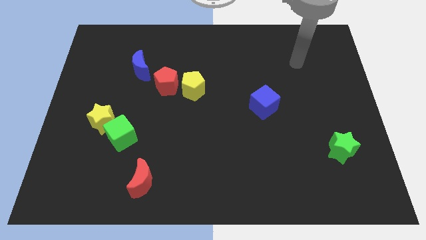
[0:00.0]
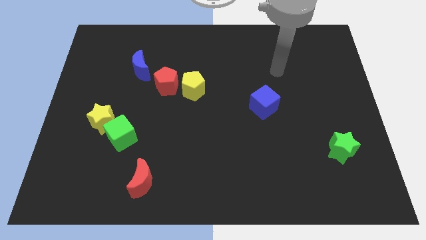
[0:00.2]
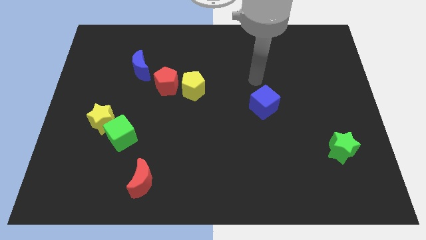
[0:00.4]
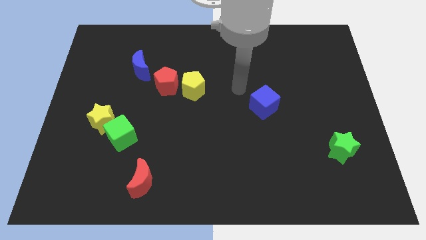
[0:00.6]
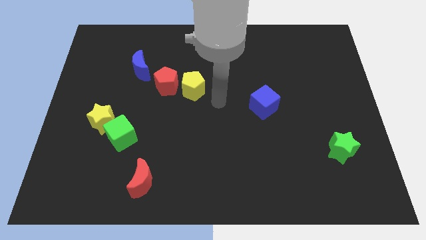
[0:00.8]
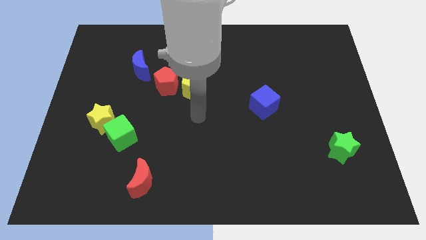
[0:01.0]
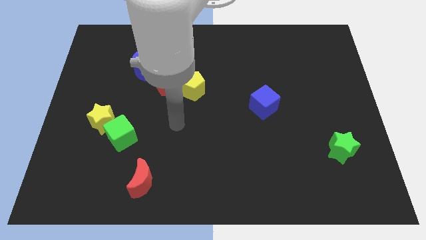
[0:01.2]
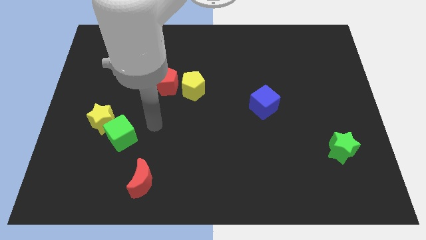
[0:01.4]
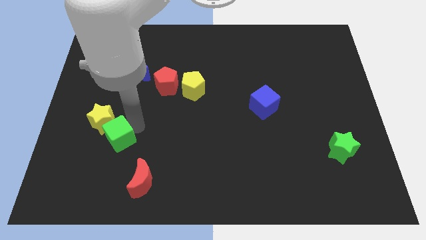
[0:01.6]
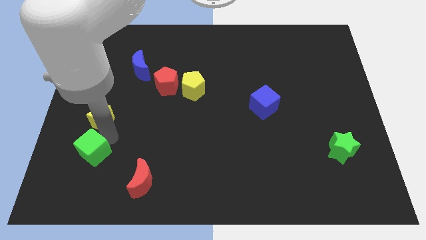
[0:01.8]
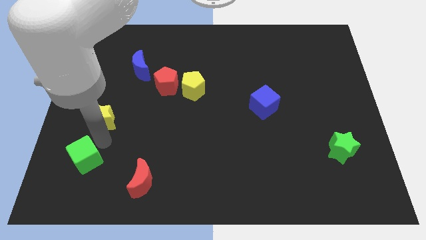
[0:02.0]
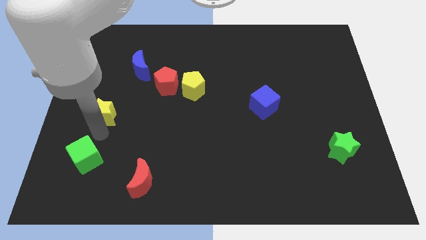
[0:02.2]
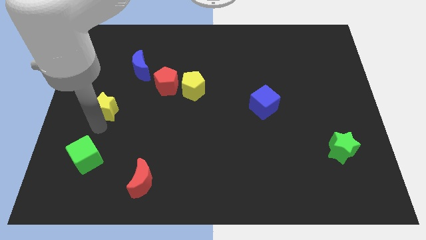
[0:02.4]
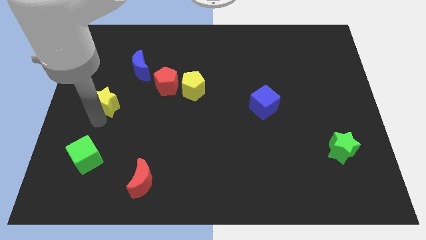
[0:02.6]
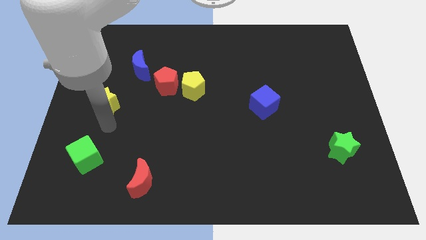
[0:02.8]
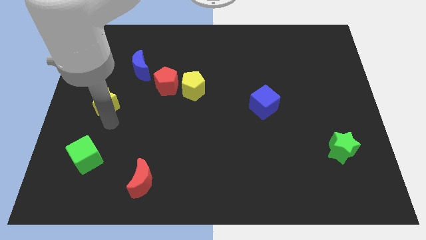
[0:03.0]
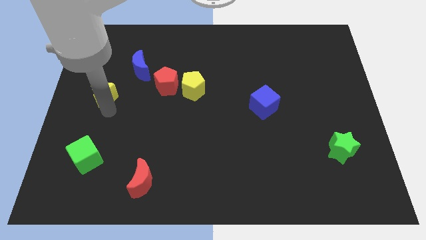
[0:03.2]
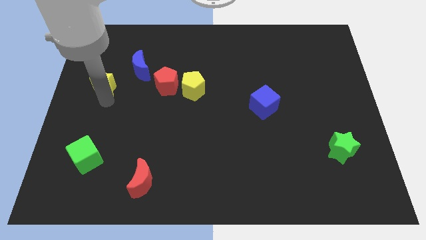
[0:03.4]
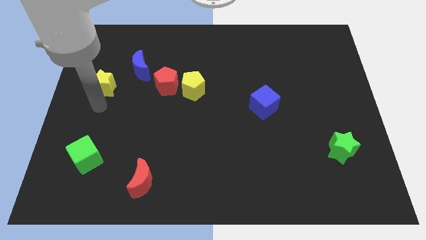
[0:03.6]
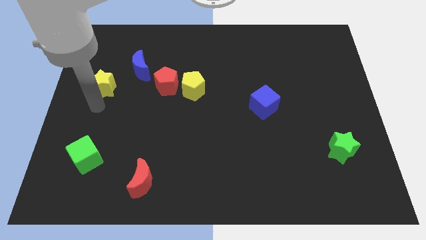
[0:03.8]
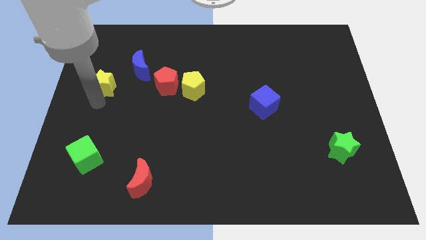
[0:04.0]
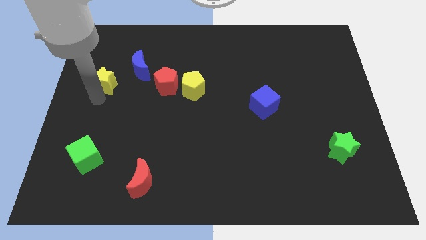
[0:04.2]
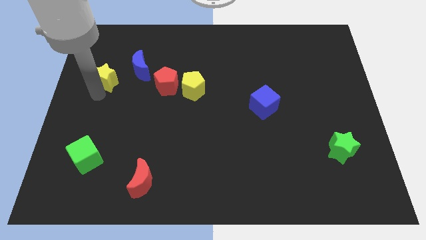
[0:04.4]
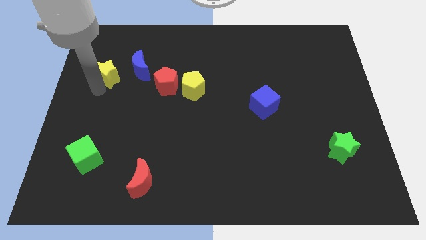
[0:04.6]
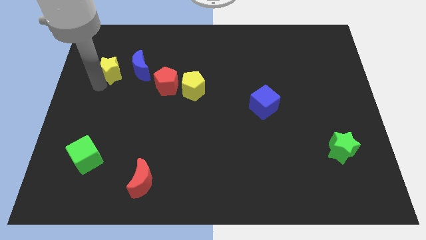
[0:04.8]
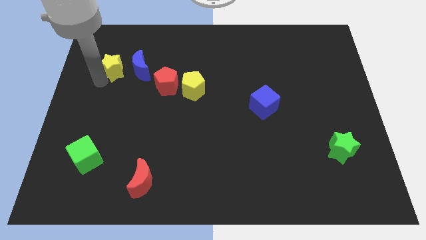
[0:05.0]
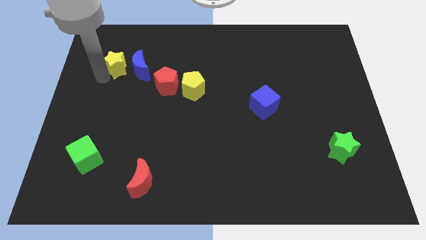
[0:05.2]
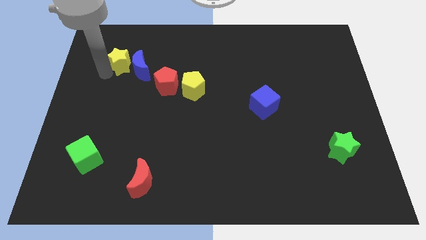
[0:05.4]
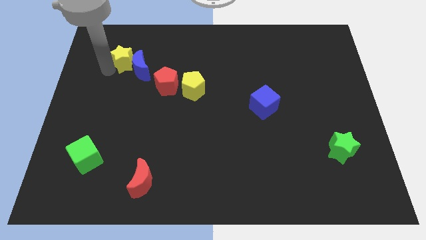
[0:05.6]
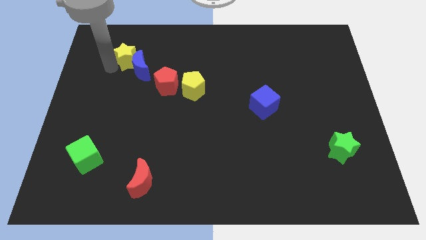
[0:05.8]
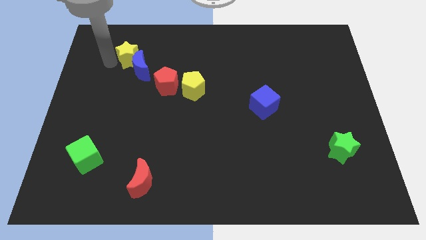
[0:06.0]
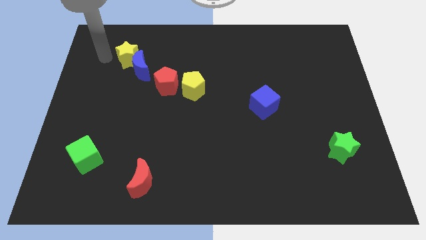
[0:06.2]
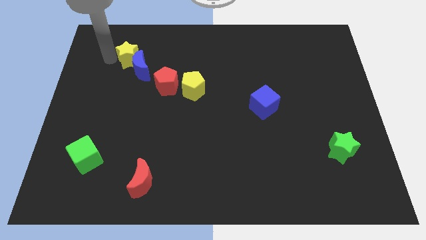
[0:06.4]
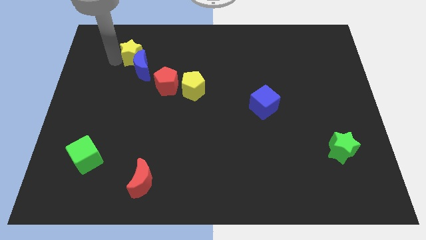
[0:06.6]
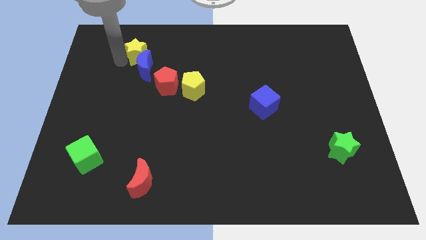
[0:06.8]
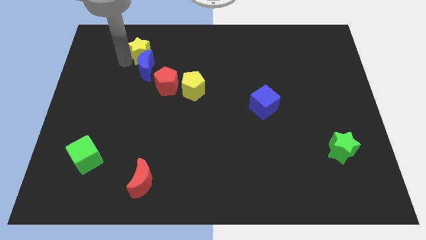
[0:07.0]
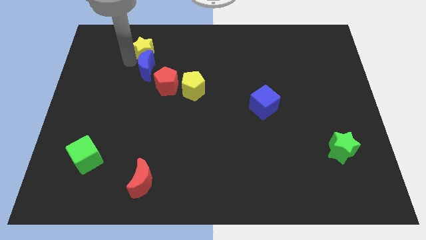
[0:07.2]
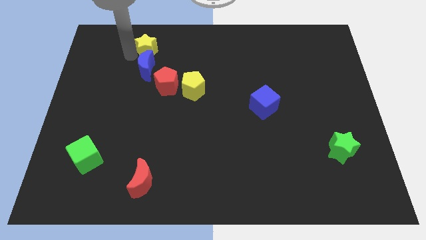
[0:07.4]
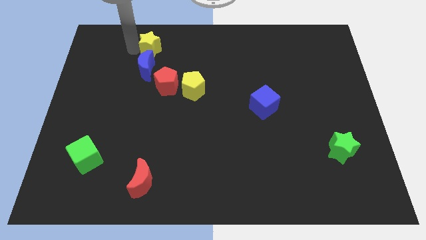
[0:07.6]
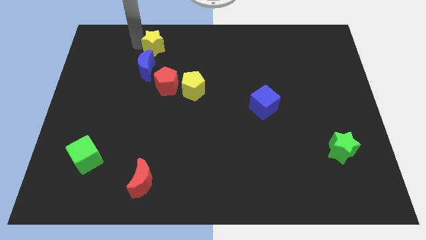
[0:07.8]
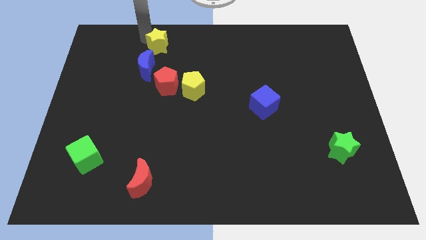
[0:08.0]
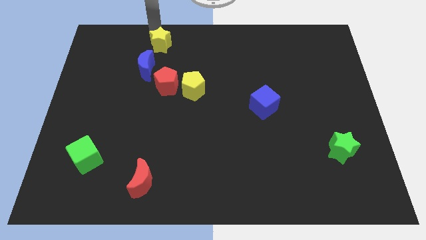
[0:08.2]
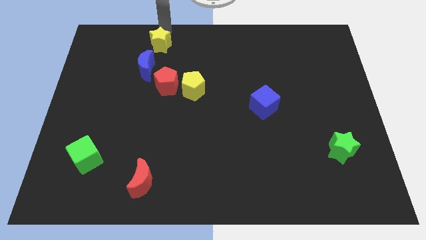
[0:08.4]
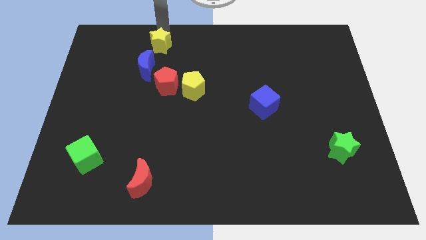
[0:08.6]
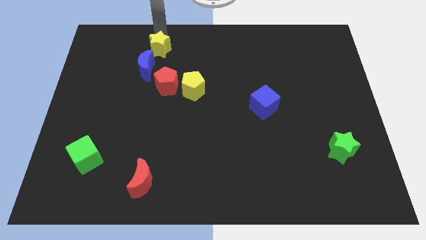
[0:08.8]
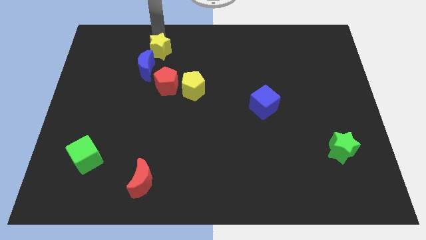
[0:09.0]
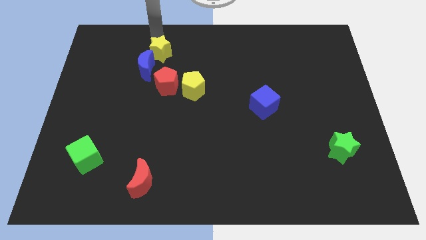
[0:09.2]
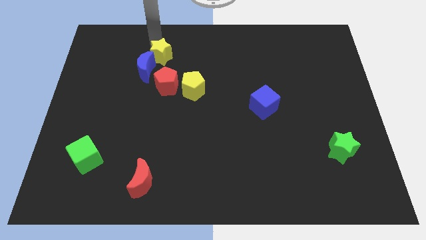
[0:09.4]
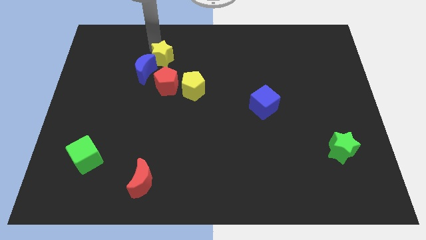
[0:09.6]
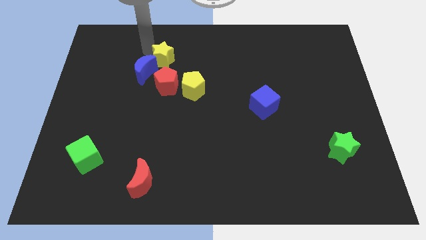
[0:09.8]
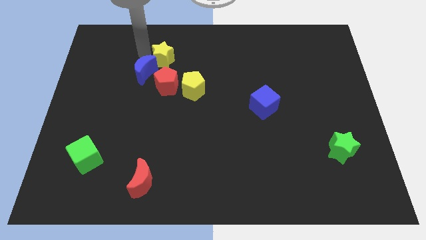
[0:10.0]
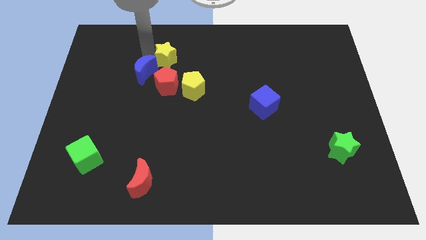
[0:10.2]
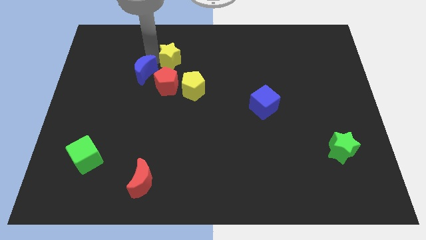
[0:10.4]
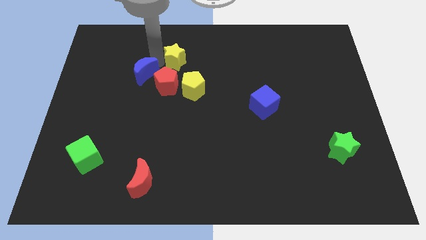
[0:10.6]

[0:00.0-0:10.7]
push the yellow star to the top right of the red pentagon
